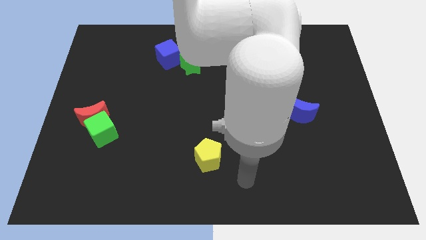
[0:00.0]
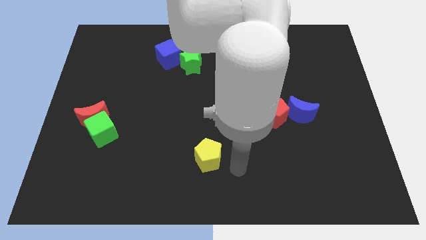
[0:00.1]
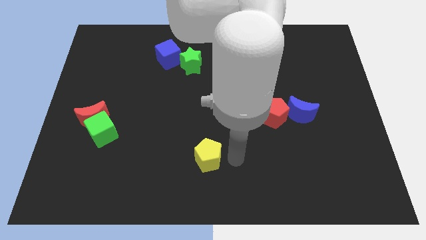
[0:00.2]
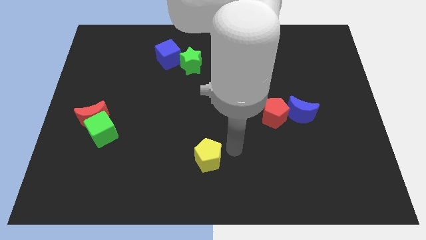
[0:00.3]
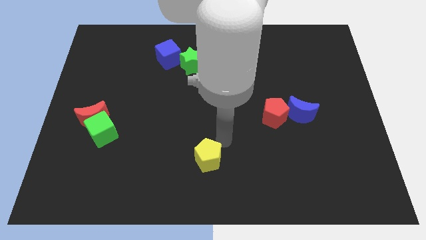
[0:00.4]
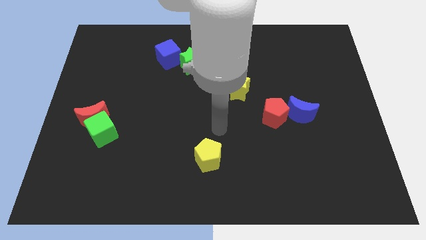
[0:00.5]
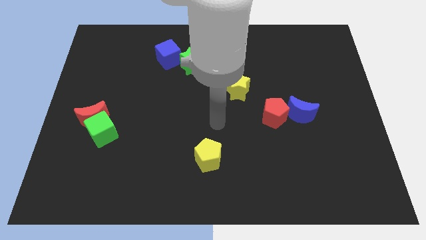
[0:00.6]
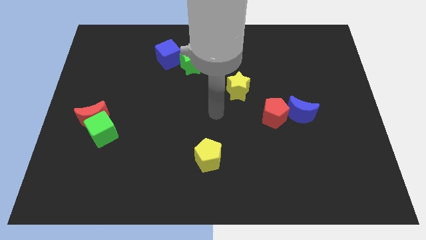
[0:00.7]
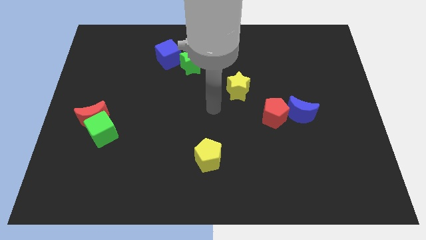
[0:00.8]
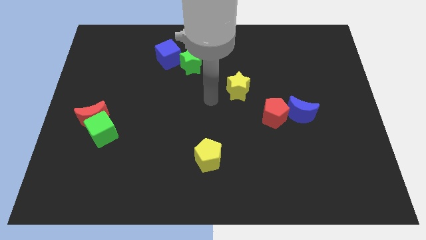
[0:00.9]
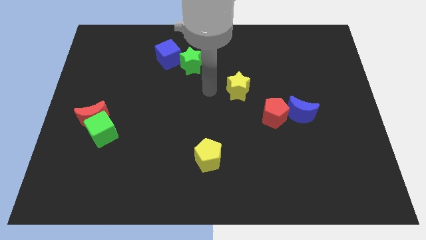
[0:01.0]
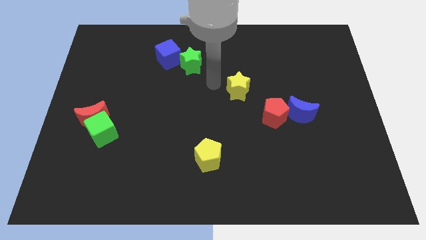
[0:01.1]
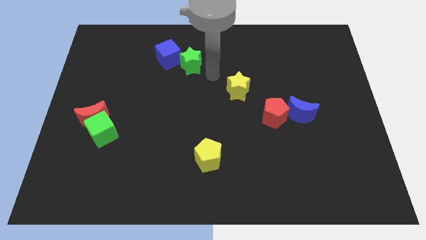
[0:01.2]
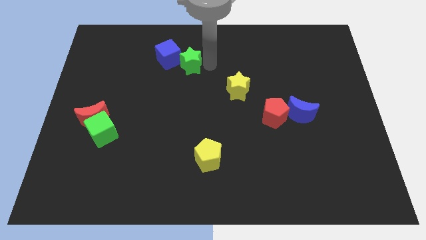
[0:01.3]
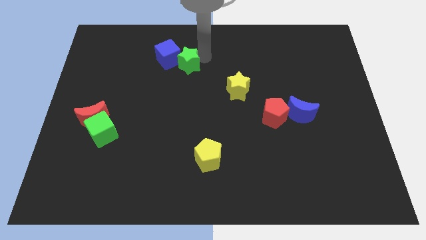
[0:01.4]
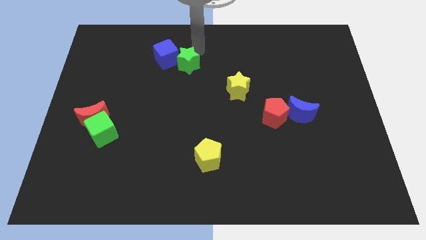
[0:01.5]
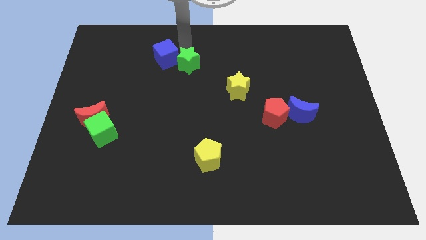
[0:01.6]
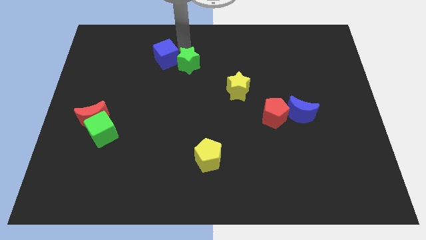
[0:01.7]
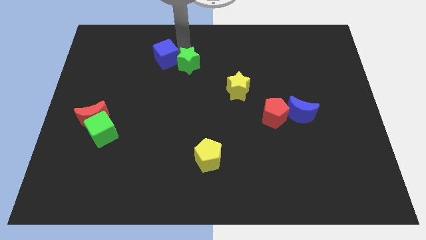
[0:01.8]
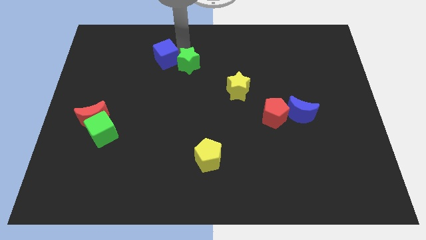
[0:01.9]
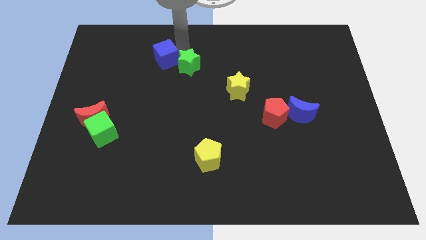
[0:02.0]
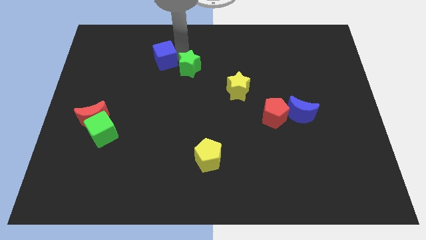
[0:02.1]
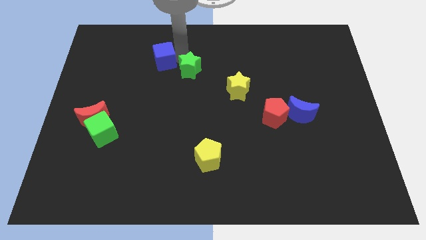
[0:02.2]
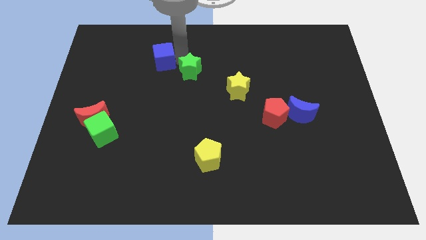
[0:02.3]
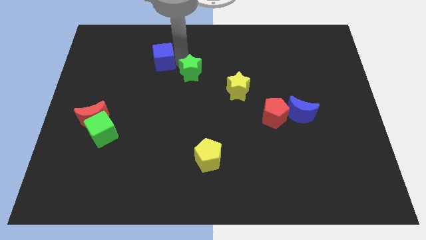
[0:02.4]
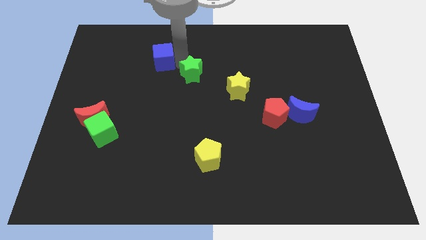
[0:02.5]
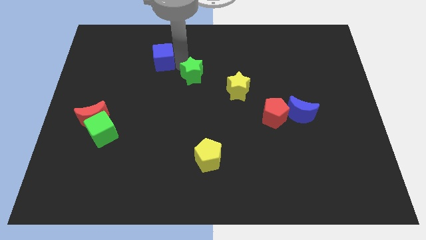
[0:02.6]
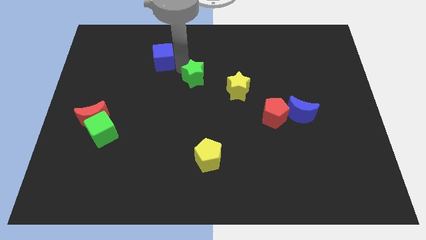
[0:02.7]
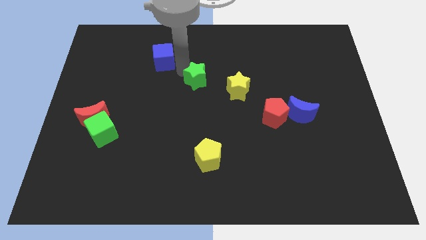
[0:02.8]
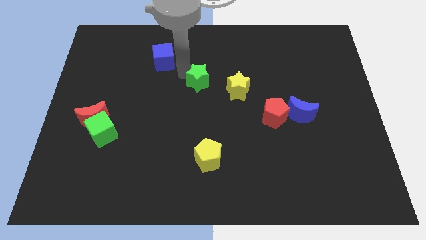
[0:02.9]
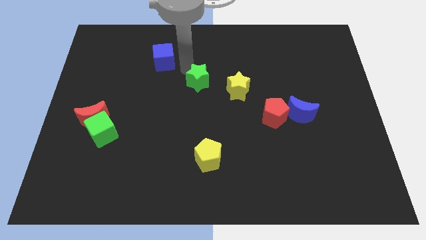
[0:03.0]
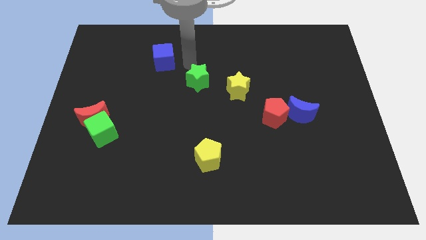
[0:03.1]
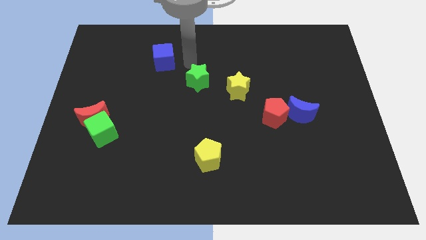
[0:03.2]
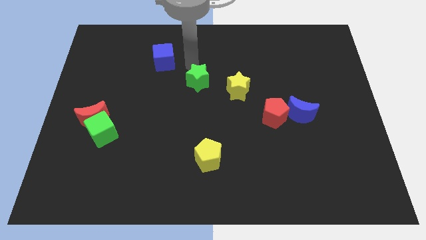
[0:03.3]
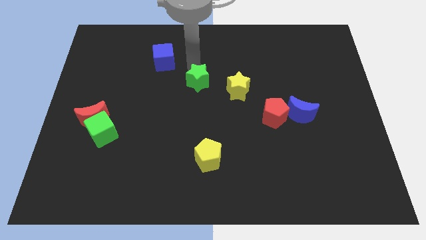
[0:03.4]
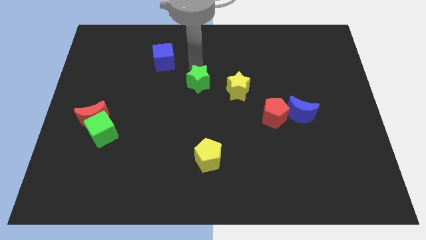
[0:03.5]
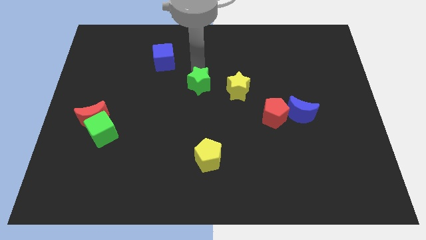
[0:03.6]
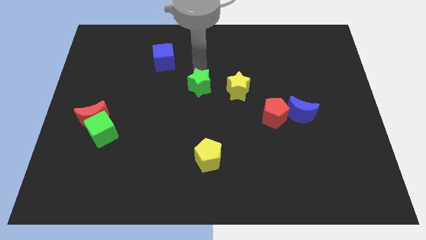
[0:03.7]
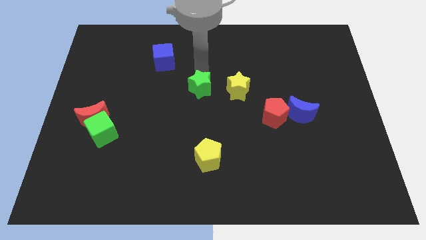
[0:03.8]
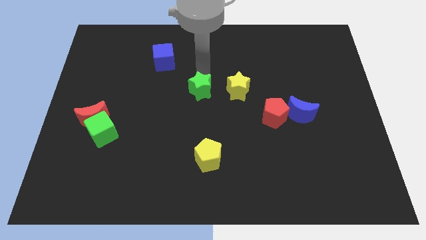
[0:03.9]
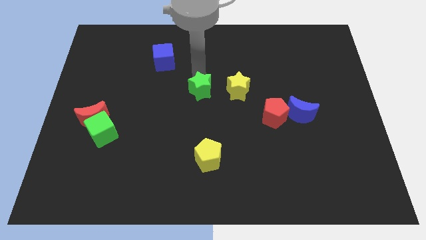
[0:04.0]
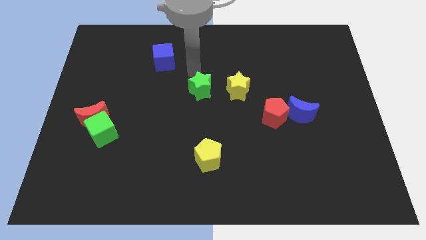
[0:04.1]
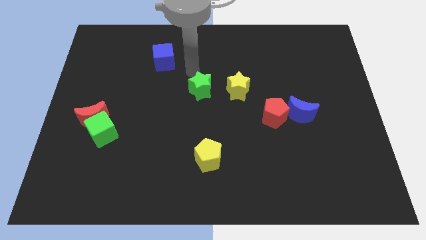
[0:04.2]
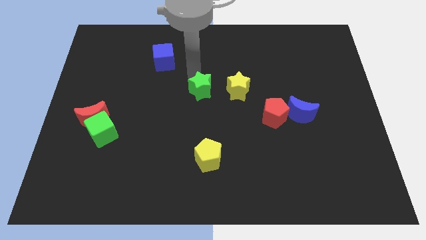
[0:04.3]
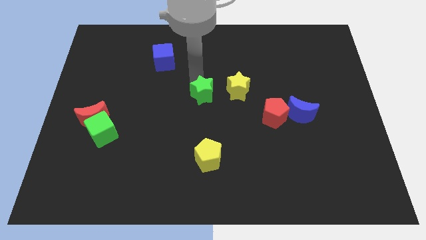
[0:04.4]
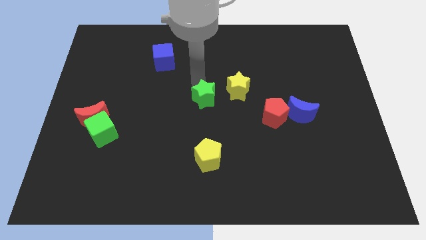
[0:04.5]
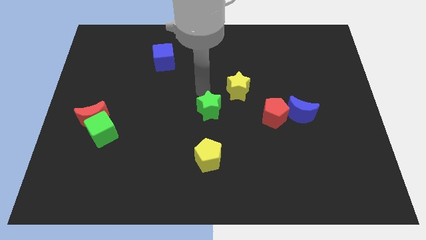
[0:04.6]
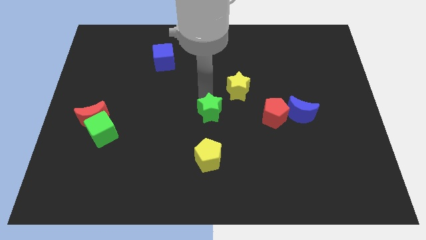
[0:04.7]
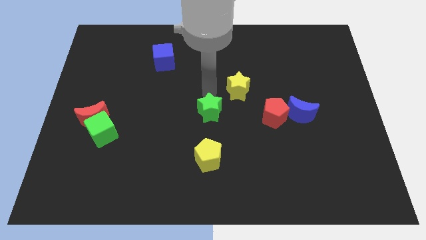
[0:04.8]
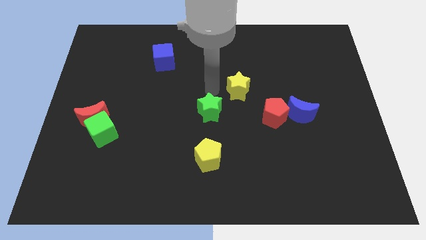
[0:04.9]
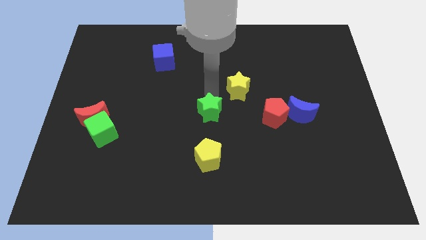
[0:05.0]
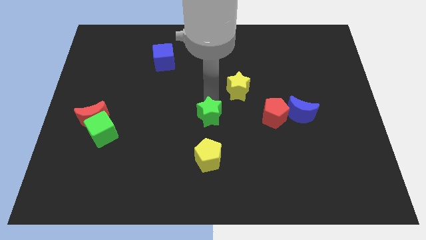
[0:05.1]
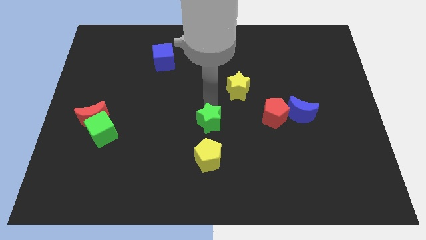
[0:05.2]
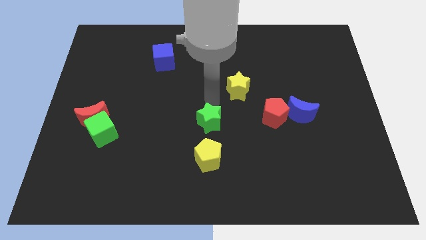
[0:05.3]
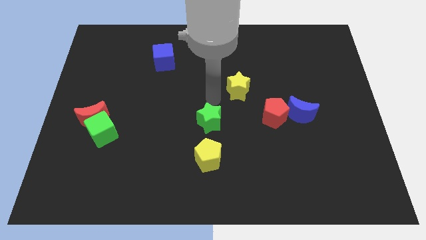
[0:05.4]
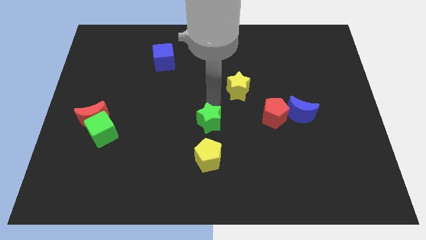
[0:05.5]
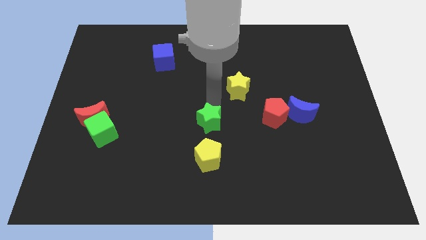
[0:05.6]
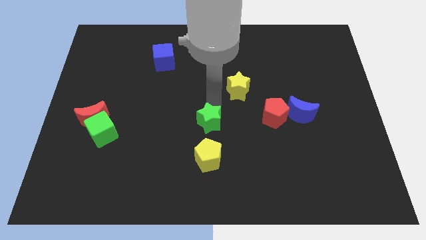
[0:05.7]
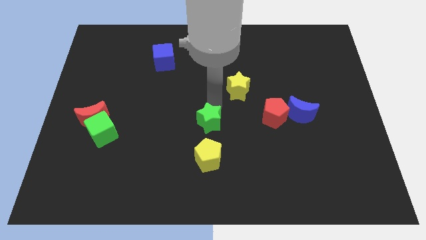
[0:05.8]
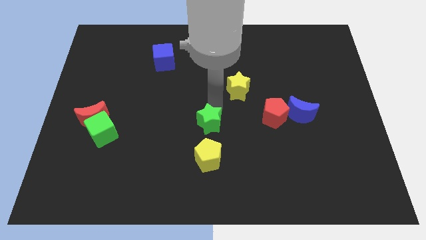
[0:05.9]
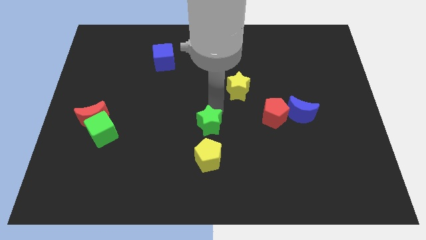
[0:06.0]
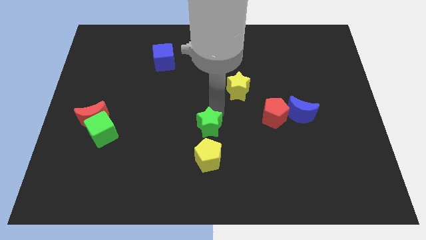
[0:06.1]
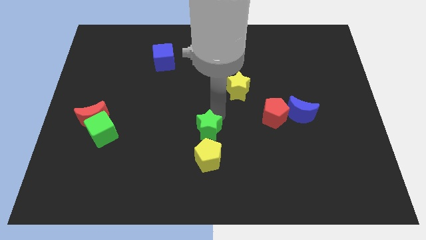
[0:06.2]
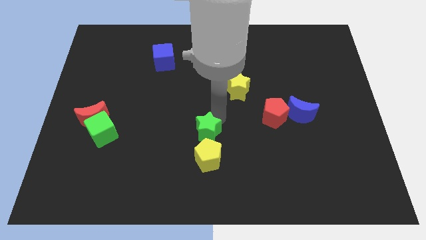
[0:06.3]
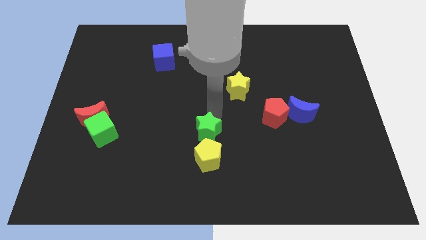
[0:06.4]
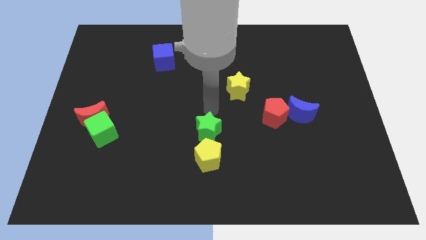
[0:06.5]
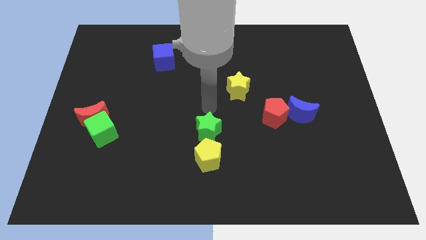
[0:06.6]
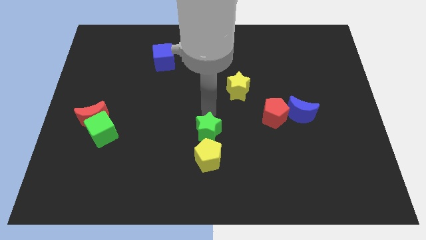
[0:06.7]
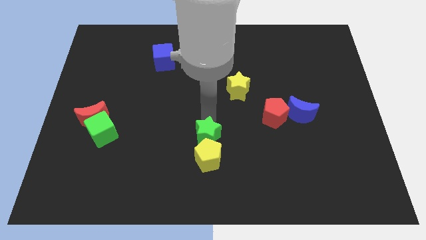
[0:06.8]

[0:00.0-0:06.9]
push the green star to the yellow pentagon
